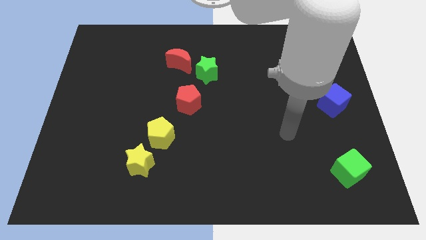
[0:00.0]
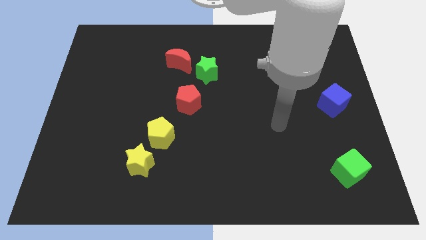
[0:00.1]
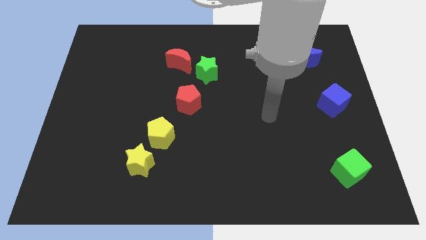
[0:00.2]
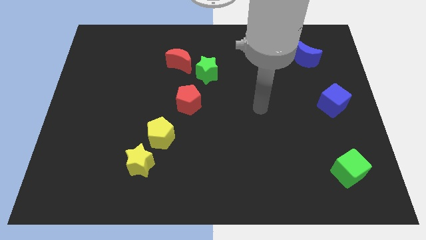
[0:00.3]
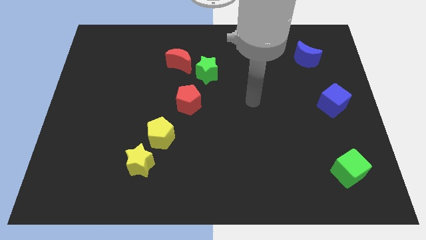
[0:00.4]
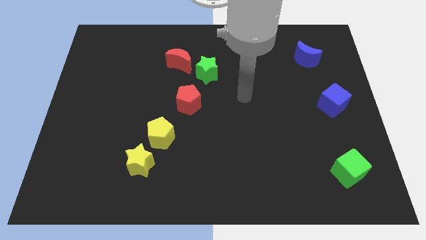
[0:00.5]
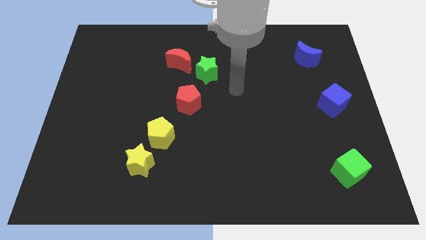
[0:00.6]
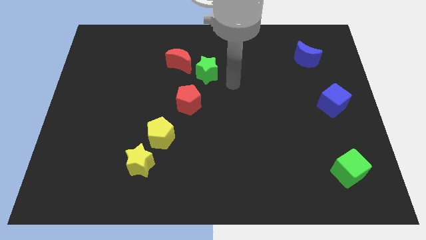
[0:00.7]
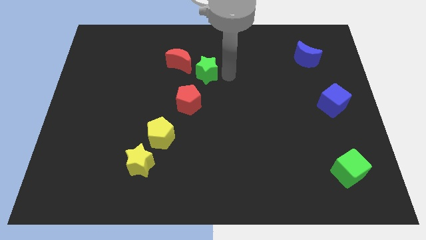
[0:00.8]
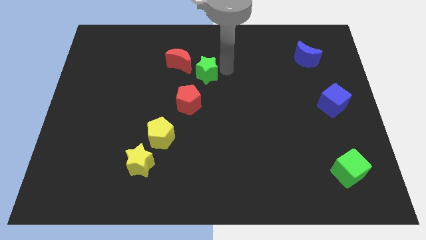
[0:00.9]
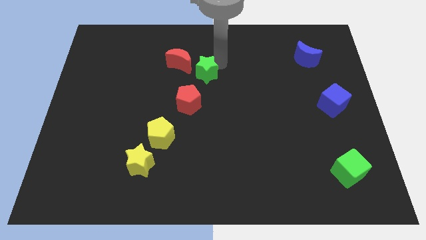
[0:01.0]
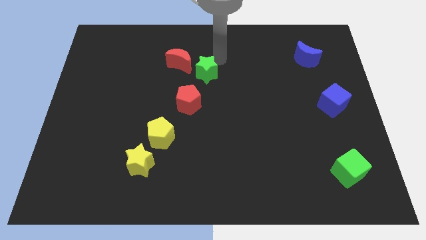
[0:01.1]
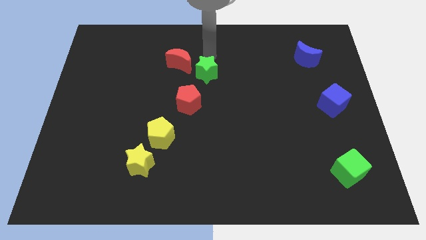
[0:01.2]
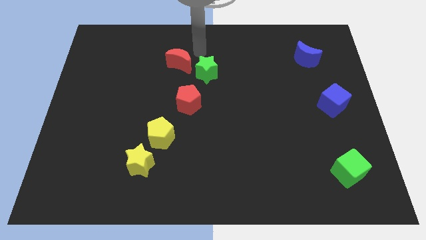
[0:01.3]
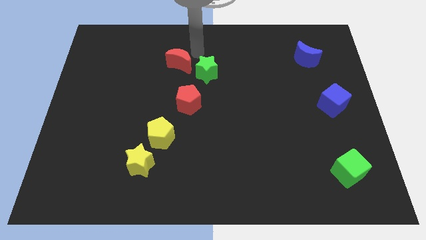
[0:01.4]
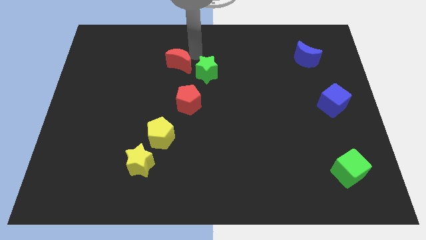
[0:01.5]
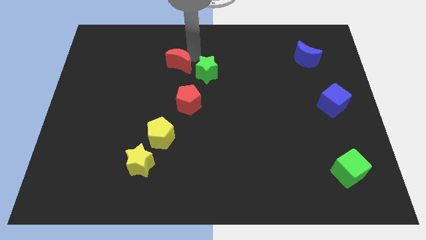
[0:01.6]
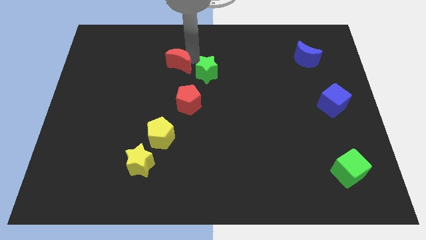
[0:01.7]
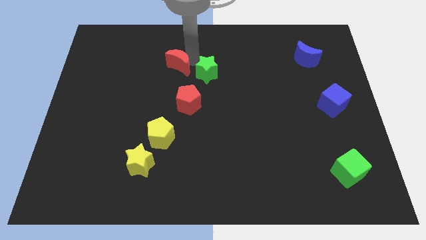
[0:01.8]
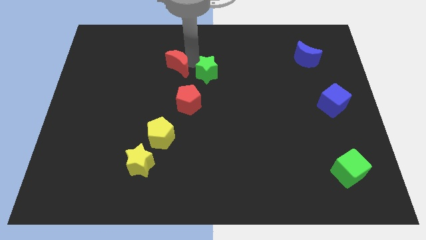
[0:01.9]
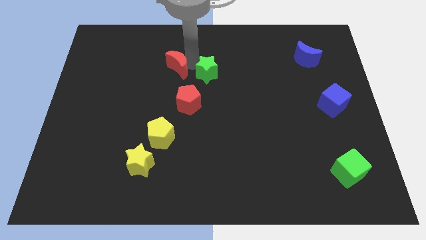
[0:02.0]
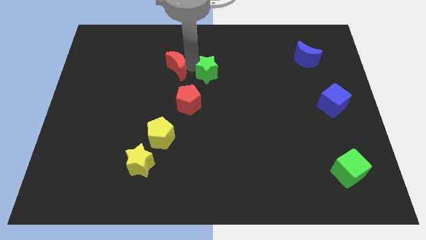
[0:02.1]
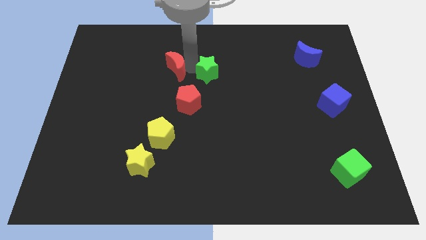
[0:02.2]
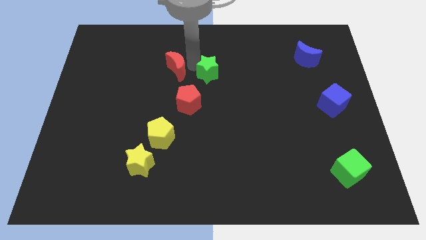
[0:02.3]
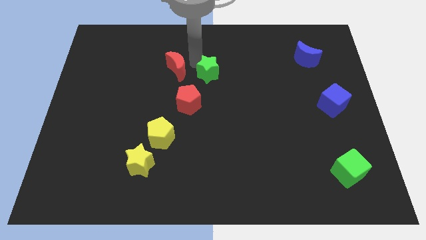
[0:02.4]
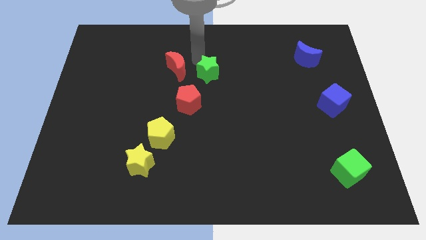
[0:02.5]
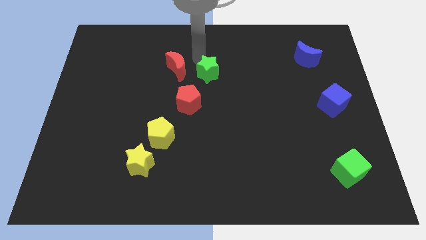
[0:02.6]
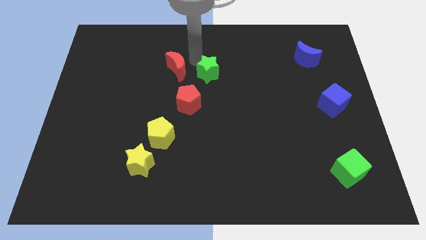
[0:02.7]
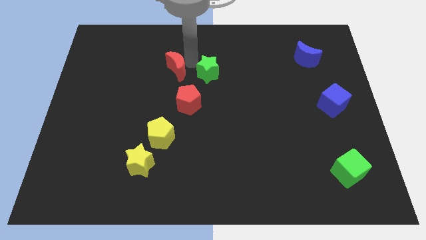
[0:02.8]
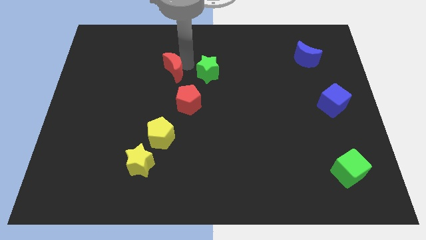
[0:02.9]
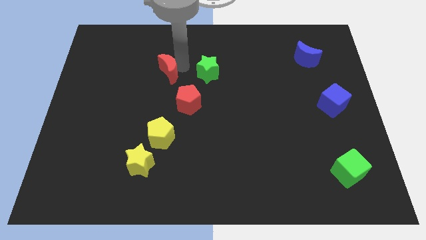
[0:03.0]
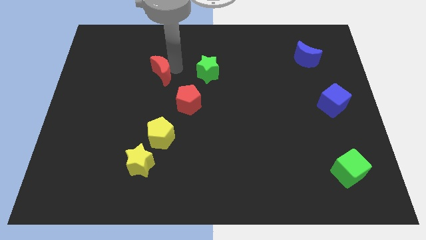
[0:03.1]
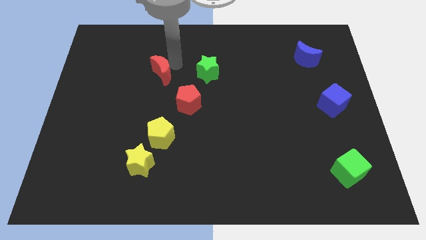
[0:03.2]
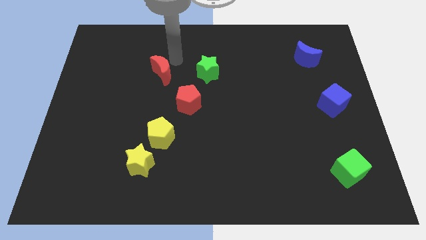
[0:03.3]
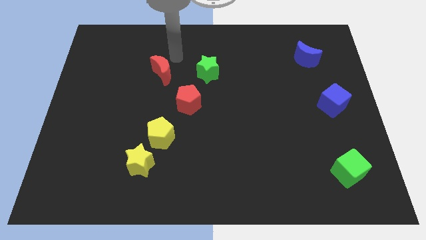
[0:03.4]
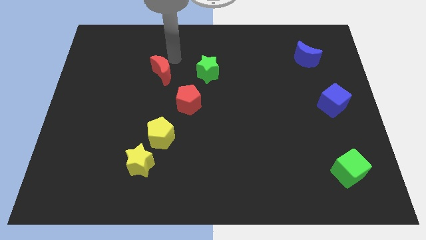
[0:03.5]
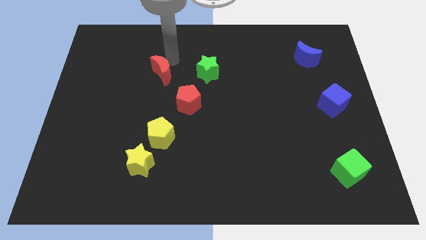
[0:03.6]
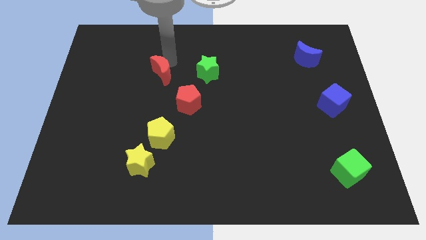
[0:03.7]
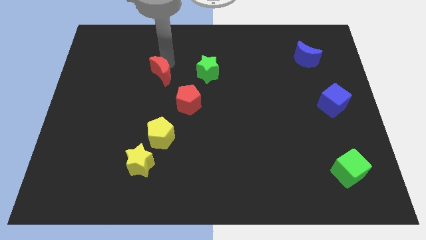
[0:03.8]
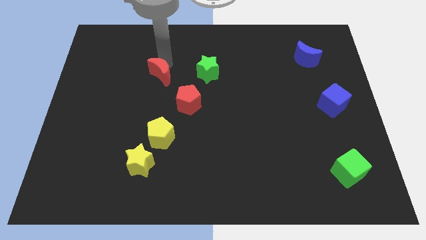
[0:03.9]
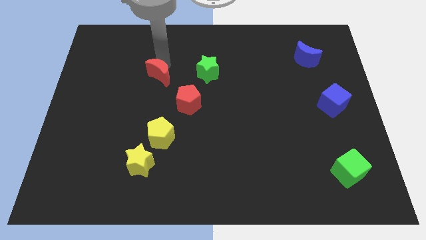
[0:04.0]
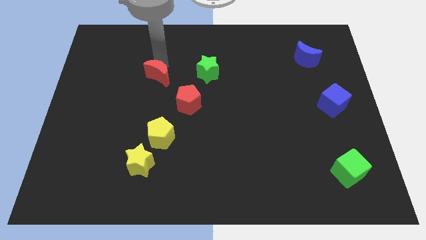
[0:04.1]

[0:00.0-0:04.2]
slightly slide the red moon diagonally down and to the left

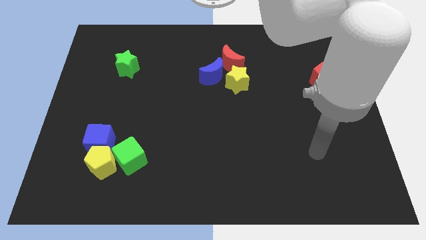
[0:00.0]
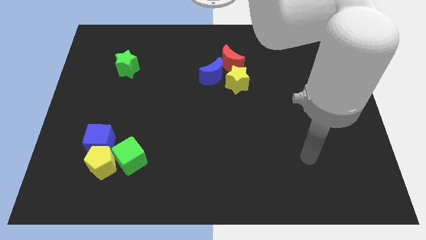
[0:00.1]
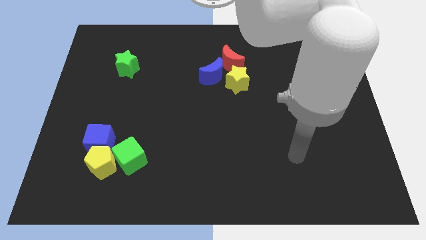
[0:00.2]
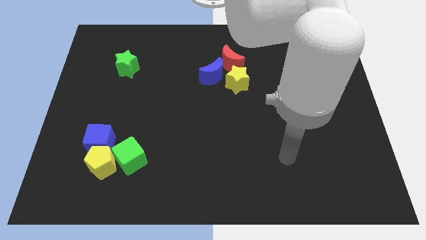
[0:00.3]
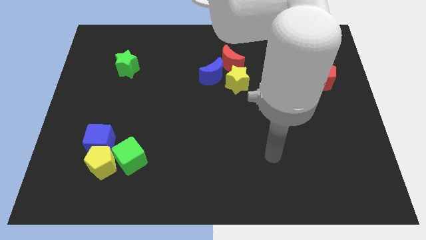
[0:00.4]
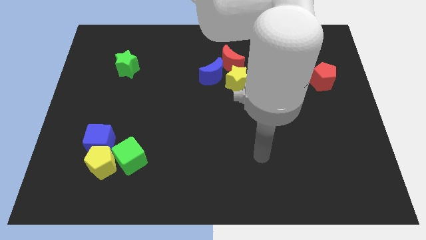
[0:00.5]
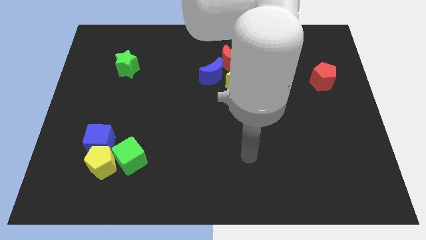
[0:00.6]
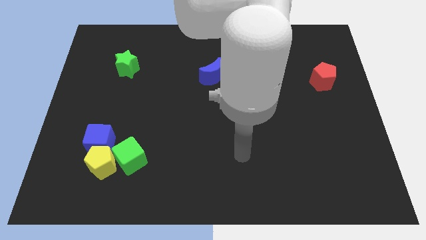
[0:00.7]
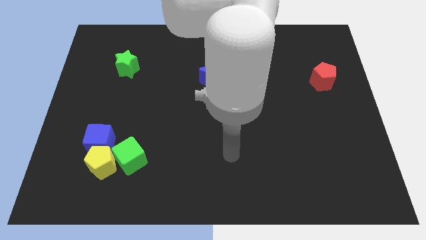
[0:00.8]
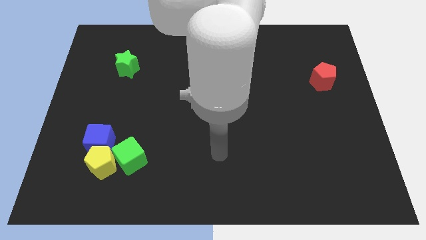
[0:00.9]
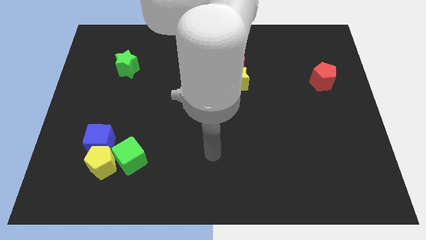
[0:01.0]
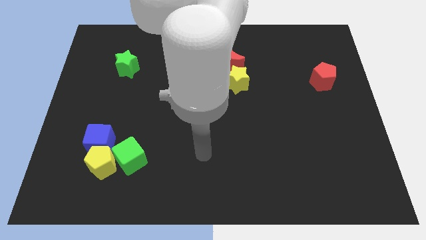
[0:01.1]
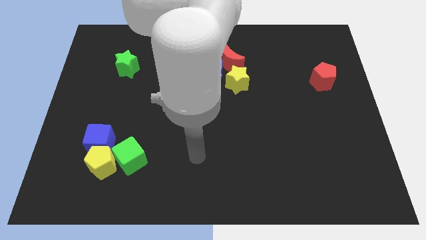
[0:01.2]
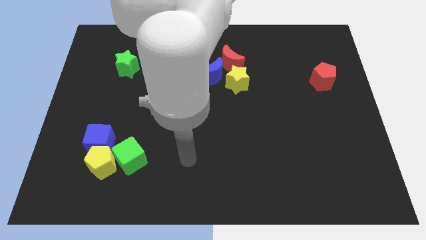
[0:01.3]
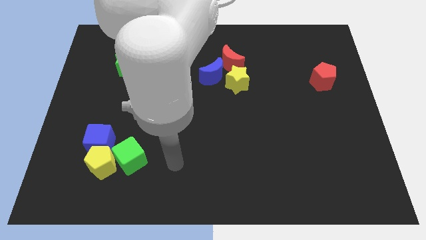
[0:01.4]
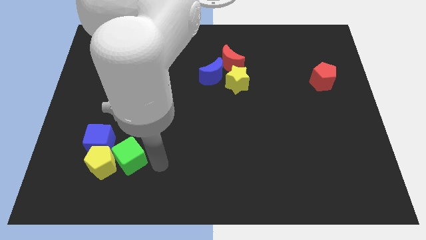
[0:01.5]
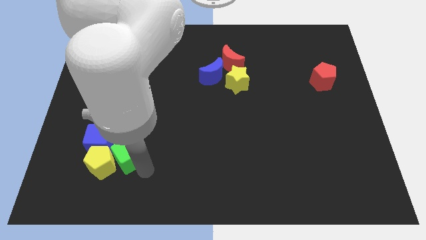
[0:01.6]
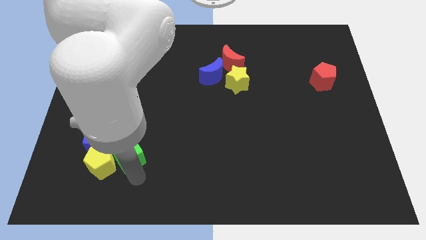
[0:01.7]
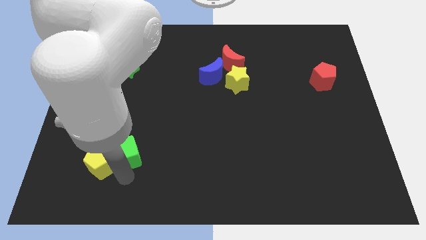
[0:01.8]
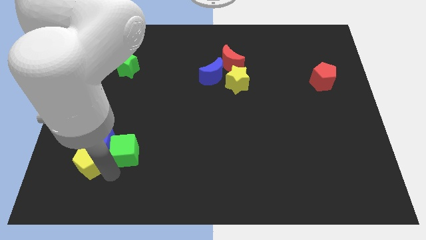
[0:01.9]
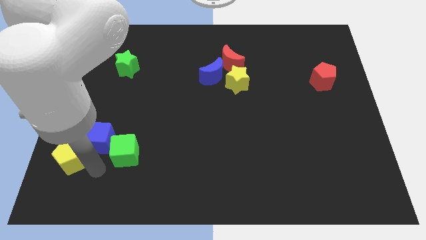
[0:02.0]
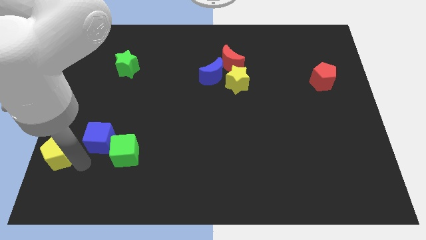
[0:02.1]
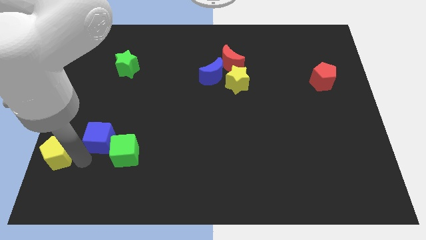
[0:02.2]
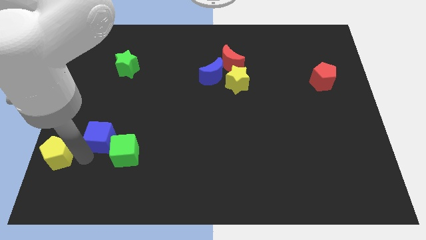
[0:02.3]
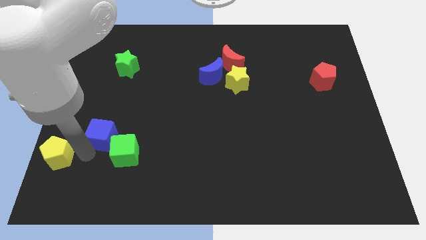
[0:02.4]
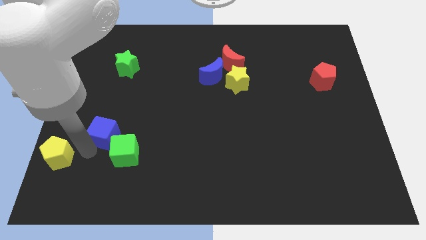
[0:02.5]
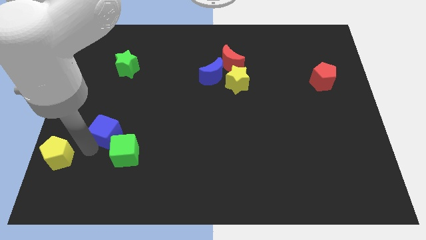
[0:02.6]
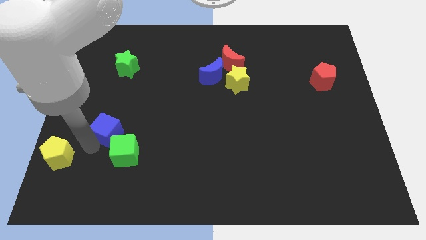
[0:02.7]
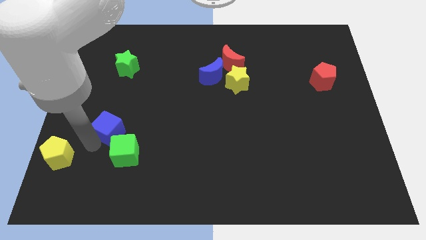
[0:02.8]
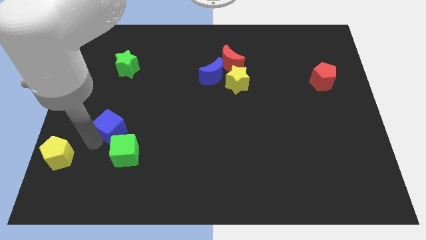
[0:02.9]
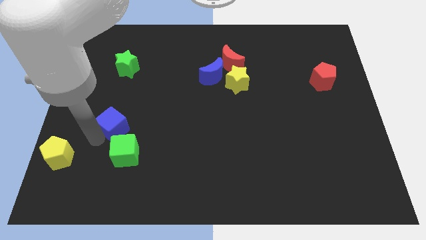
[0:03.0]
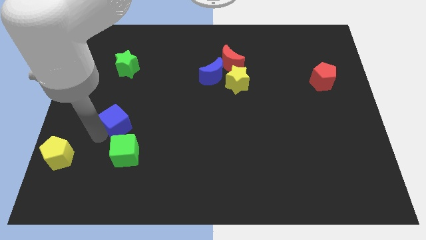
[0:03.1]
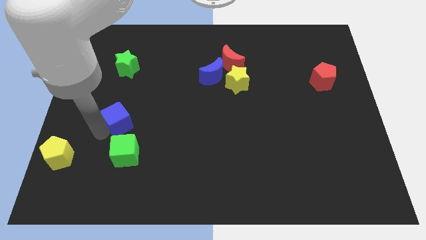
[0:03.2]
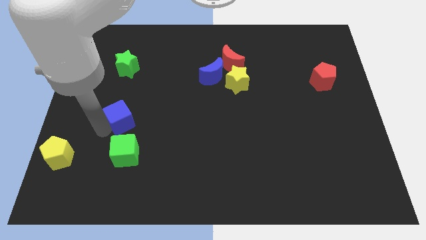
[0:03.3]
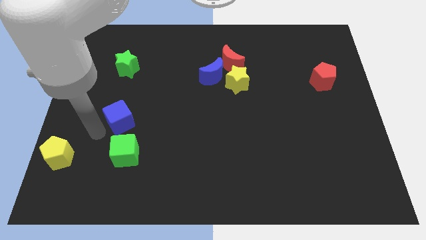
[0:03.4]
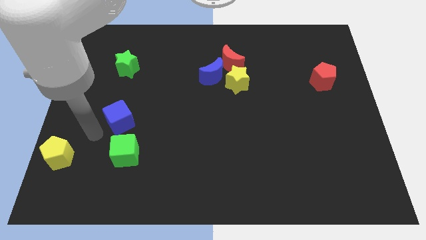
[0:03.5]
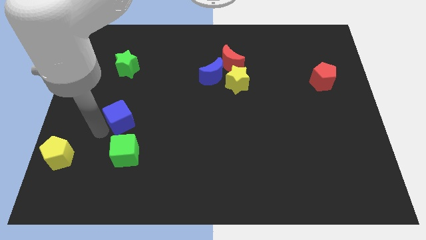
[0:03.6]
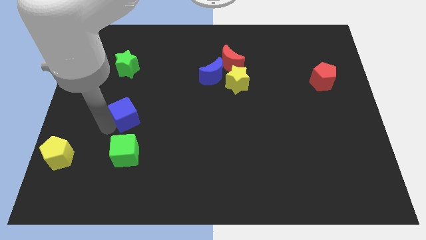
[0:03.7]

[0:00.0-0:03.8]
slide the blue cube diagonally upwards and right somewhat
